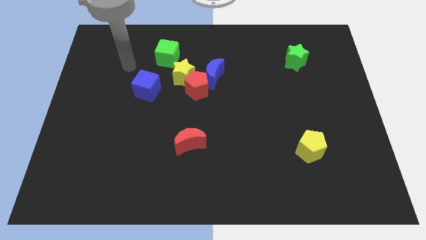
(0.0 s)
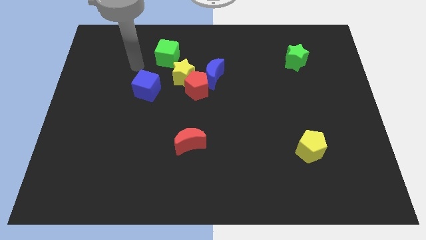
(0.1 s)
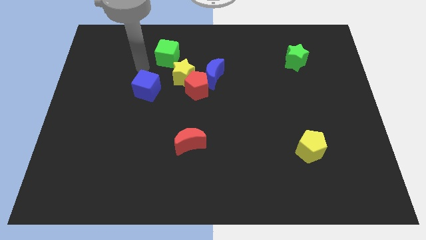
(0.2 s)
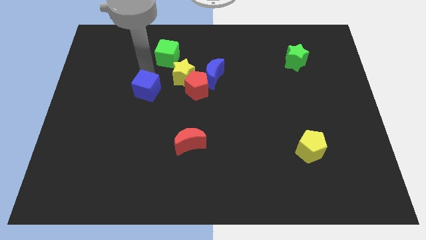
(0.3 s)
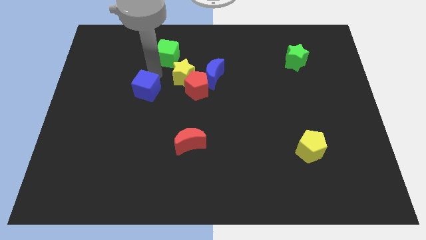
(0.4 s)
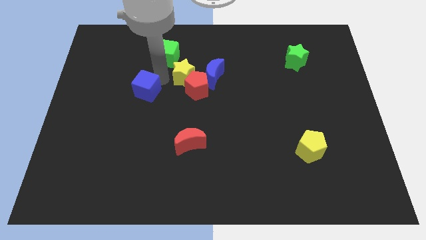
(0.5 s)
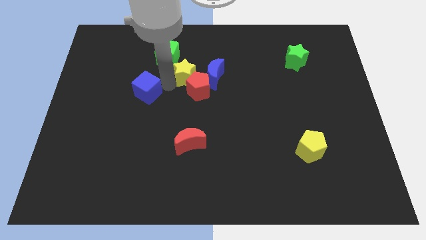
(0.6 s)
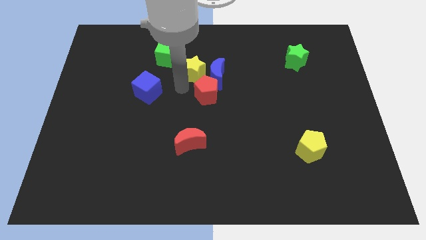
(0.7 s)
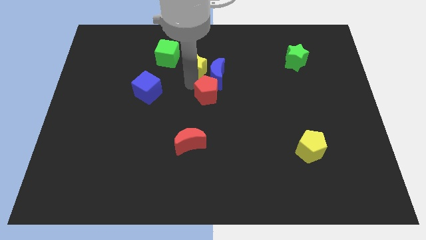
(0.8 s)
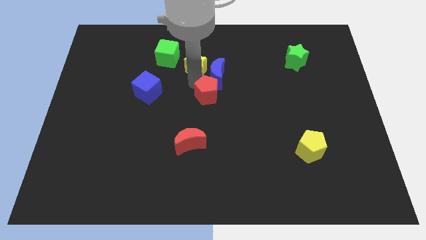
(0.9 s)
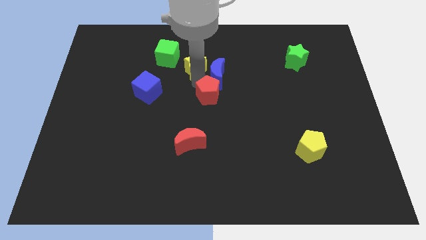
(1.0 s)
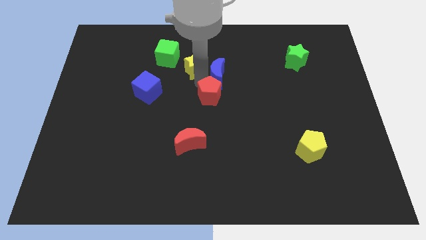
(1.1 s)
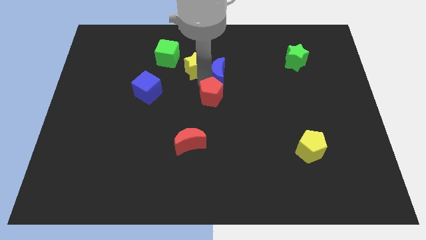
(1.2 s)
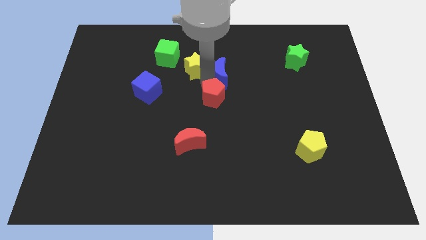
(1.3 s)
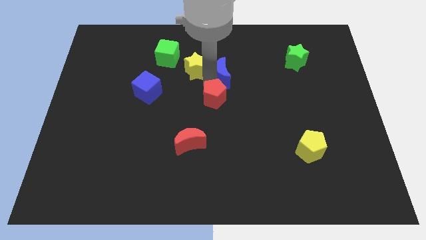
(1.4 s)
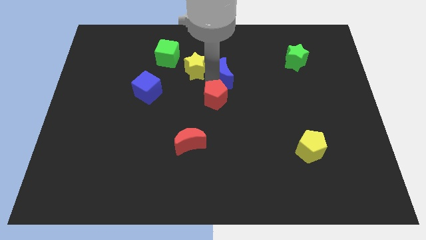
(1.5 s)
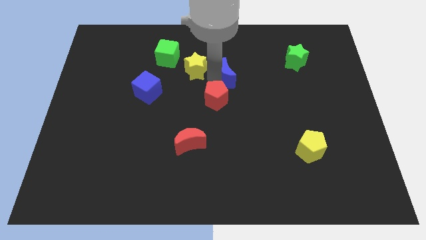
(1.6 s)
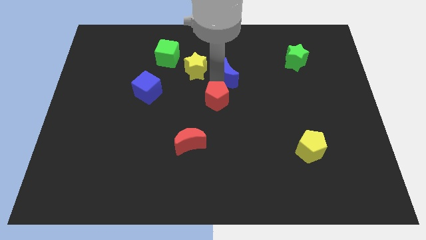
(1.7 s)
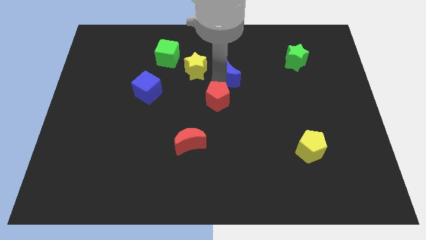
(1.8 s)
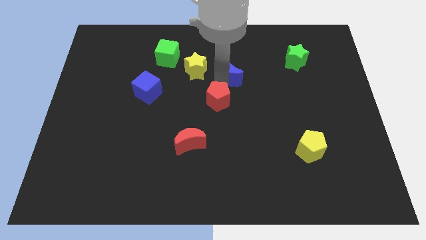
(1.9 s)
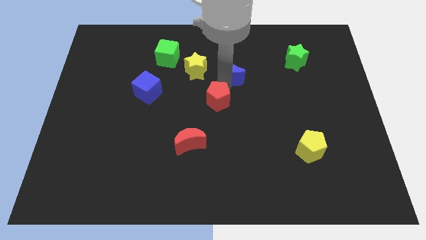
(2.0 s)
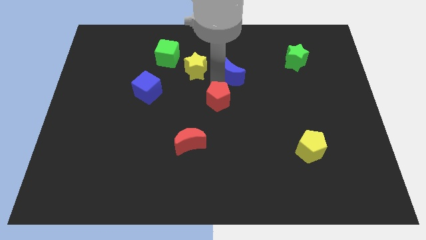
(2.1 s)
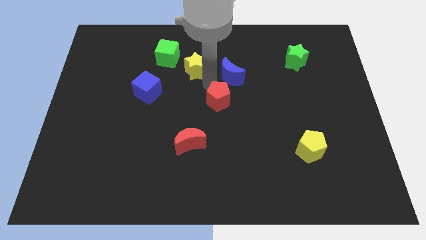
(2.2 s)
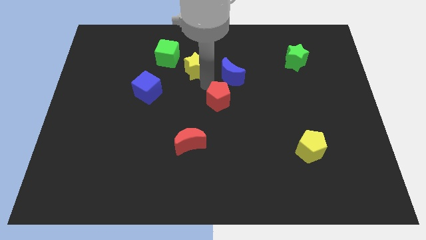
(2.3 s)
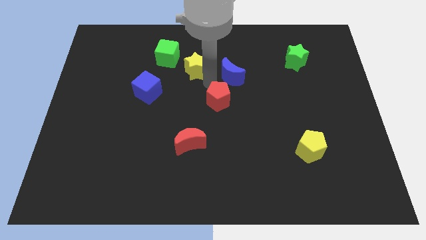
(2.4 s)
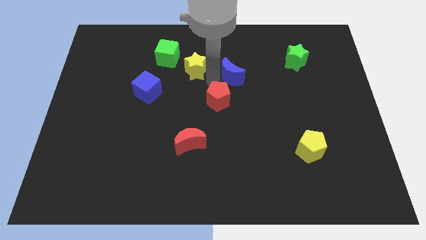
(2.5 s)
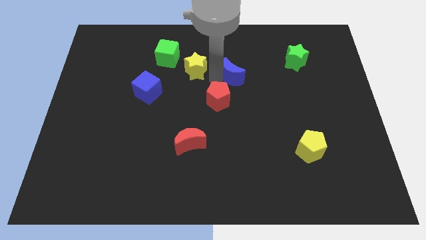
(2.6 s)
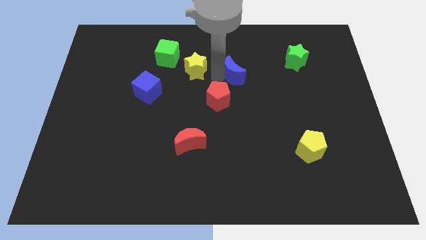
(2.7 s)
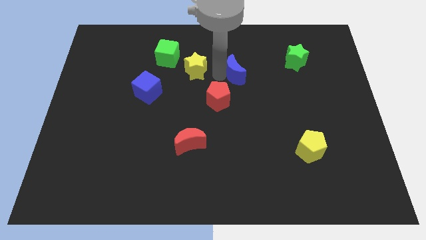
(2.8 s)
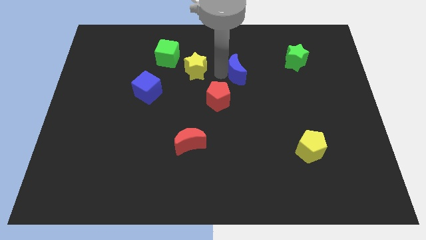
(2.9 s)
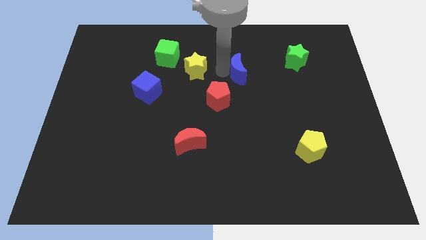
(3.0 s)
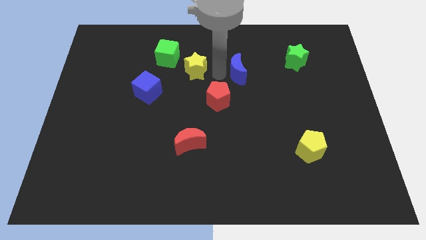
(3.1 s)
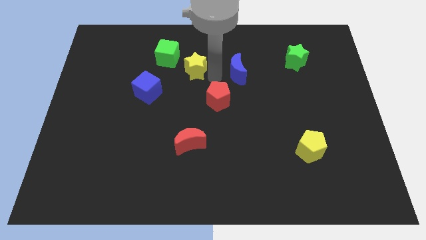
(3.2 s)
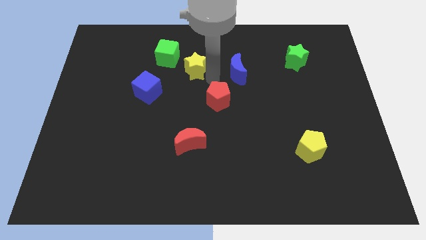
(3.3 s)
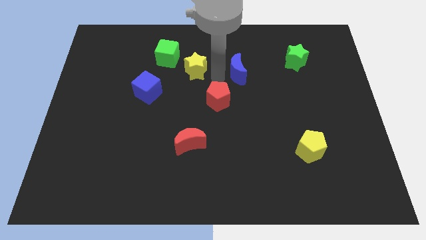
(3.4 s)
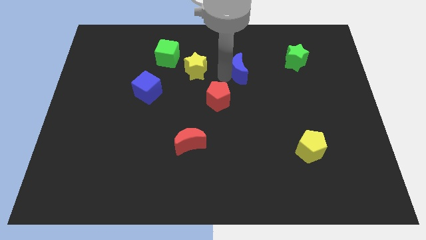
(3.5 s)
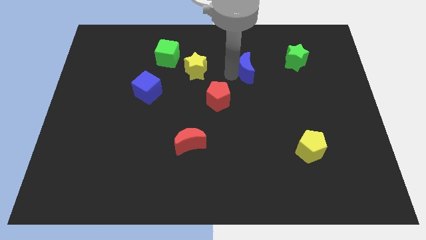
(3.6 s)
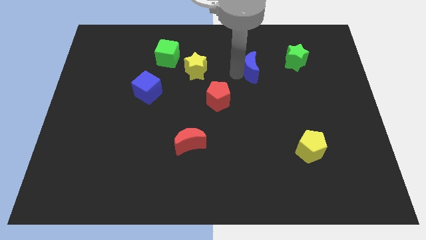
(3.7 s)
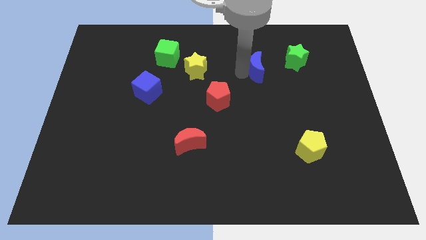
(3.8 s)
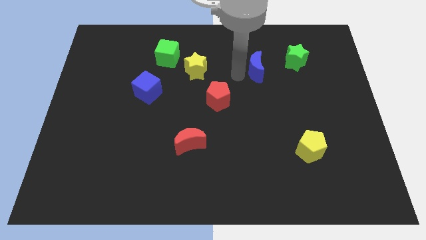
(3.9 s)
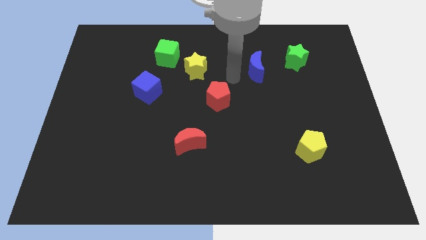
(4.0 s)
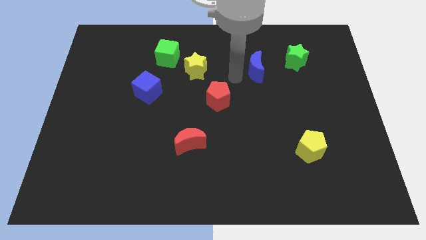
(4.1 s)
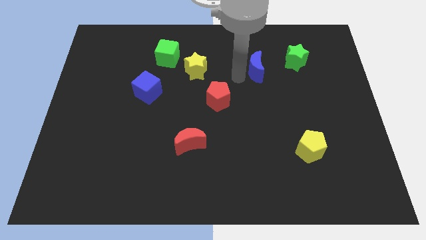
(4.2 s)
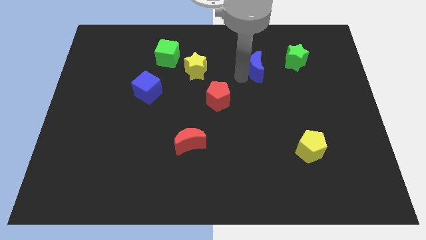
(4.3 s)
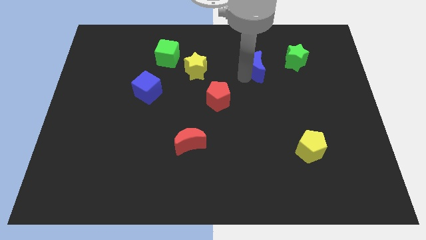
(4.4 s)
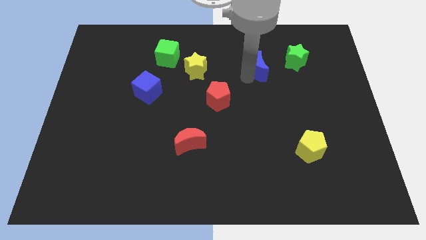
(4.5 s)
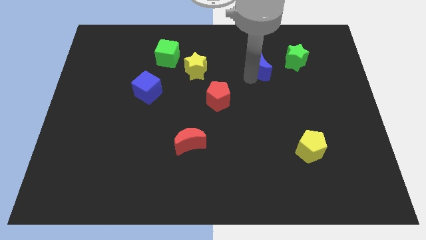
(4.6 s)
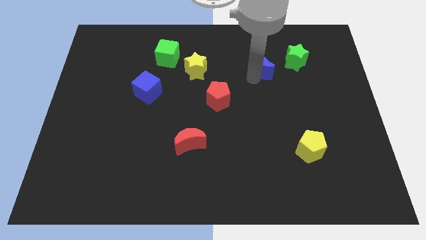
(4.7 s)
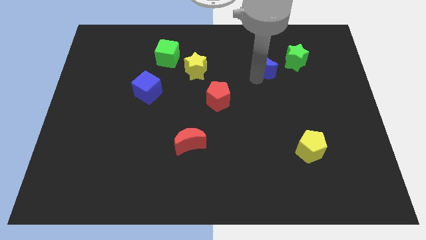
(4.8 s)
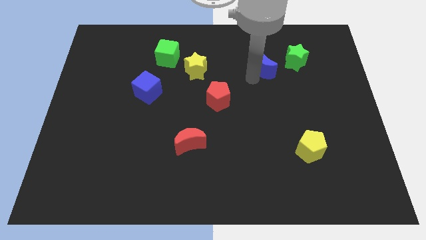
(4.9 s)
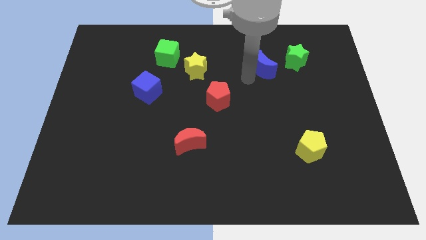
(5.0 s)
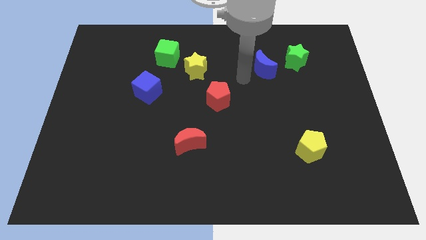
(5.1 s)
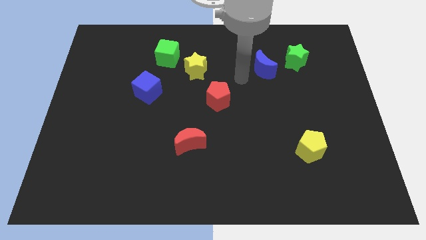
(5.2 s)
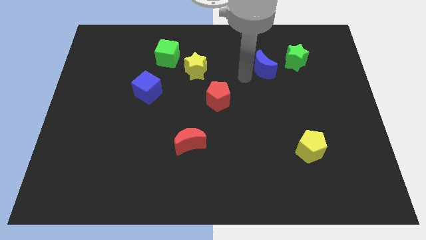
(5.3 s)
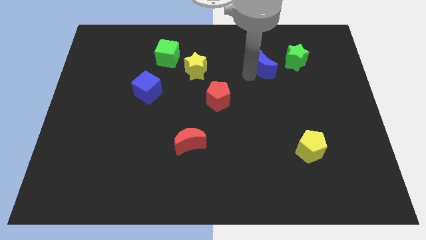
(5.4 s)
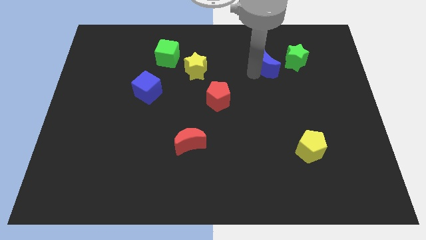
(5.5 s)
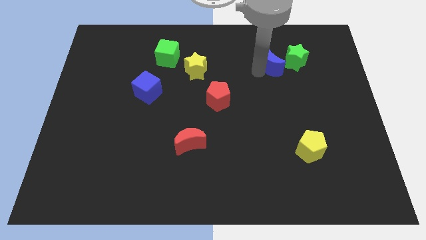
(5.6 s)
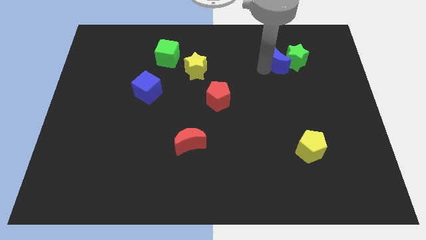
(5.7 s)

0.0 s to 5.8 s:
slide the blue moon to the green star

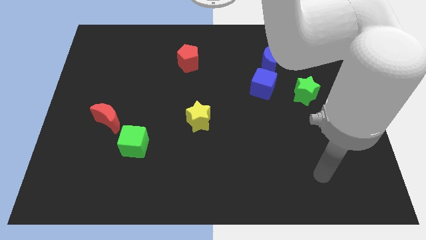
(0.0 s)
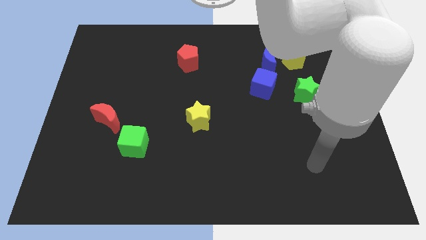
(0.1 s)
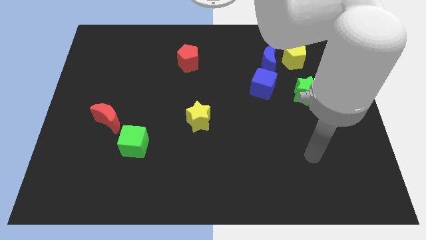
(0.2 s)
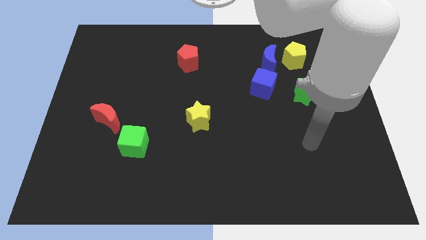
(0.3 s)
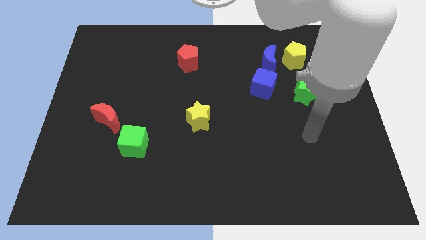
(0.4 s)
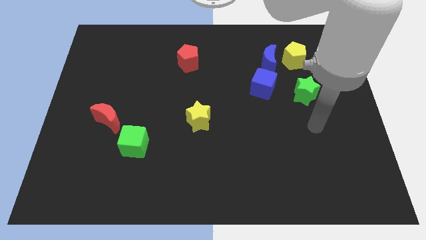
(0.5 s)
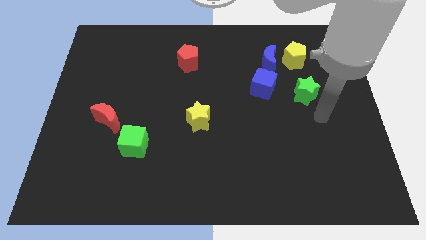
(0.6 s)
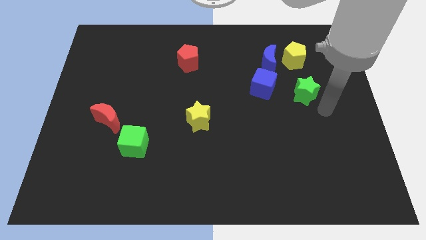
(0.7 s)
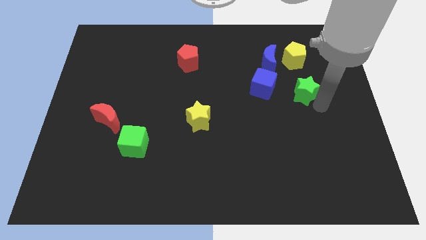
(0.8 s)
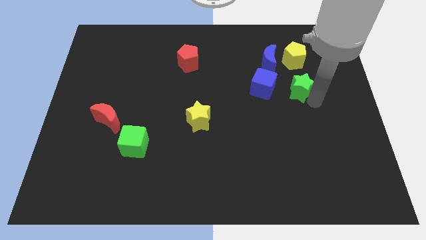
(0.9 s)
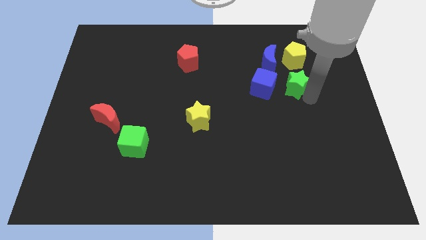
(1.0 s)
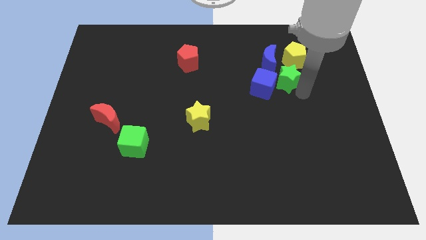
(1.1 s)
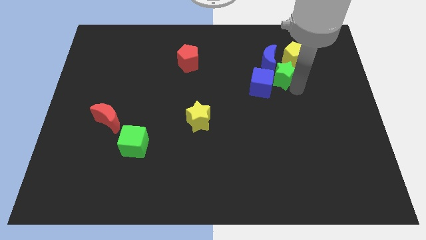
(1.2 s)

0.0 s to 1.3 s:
push the green star close to the blue moon
